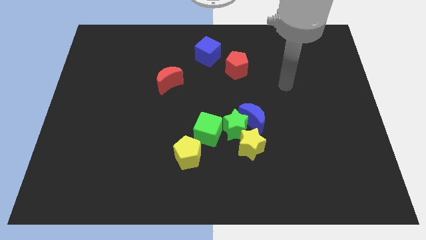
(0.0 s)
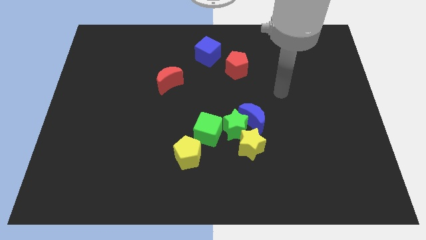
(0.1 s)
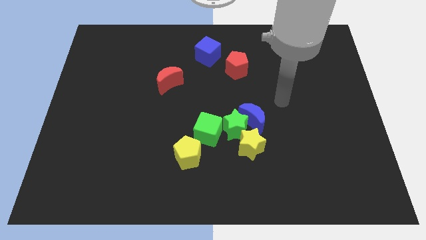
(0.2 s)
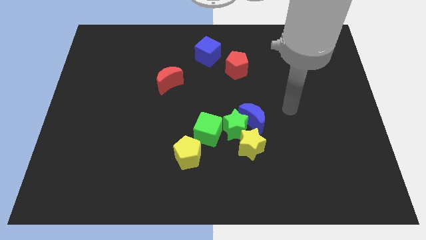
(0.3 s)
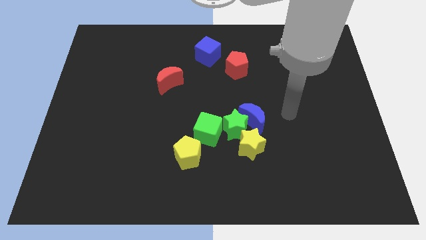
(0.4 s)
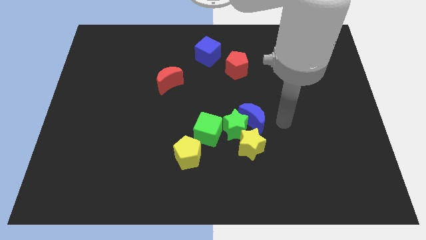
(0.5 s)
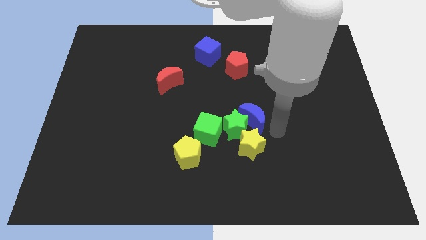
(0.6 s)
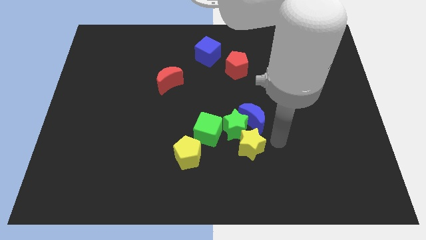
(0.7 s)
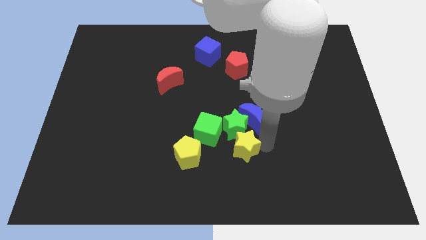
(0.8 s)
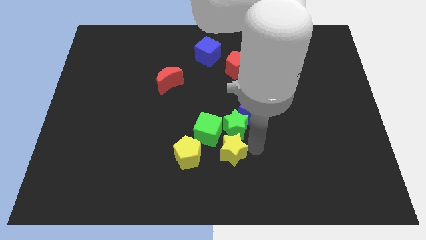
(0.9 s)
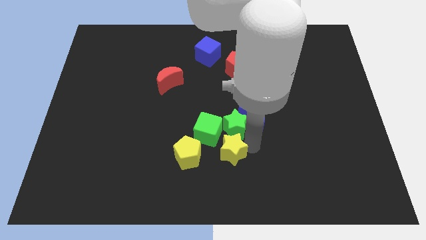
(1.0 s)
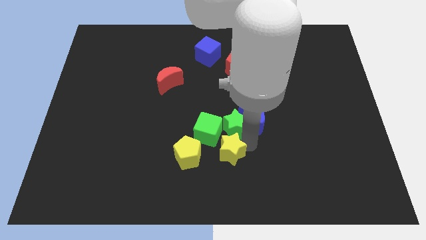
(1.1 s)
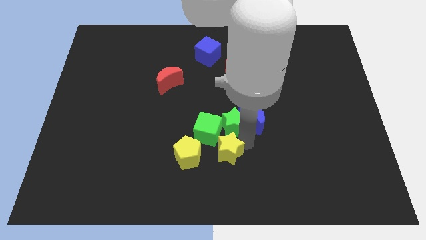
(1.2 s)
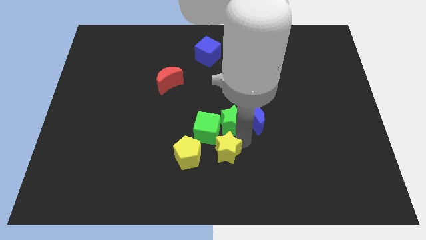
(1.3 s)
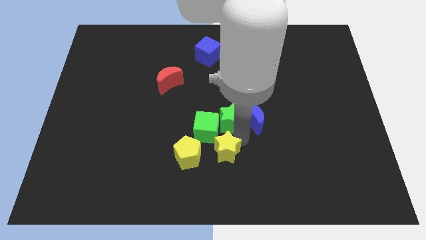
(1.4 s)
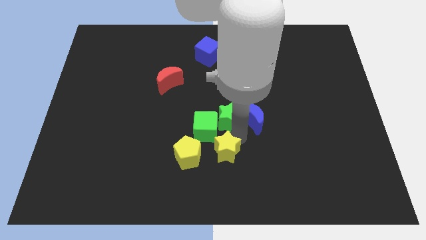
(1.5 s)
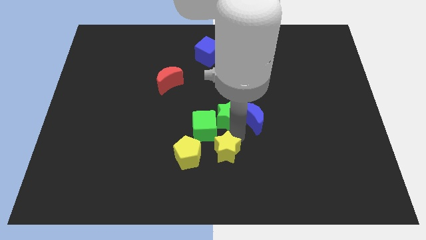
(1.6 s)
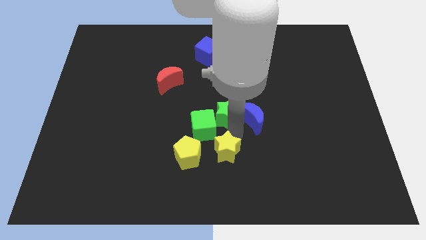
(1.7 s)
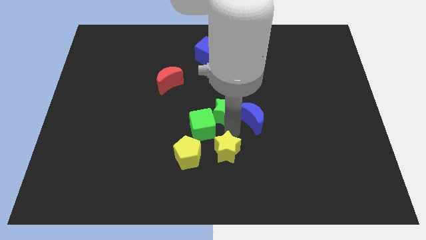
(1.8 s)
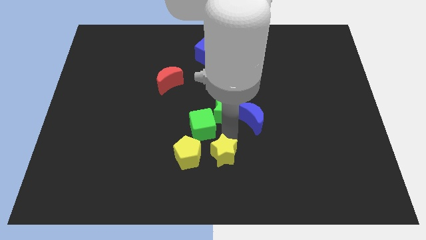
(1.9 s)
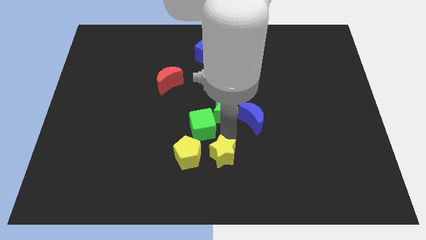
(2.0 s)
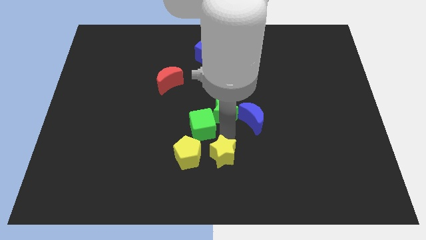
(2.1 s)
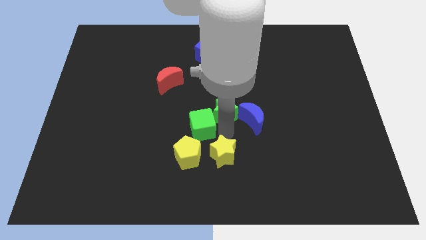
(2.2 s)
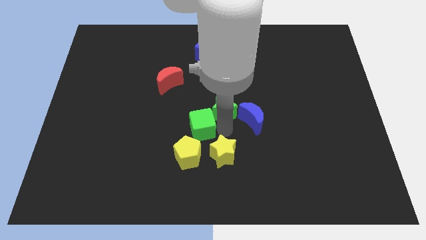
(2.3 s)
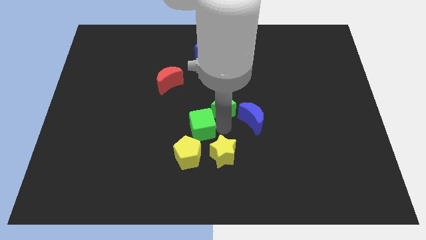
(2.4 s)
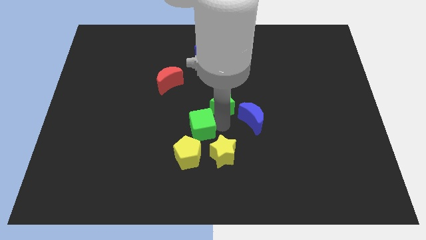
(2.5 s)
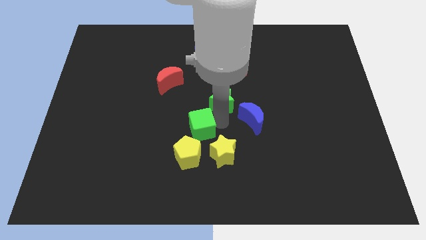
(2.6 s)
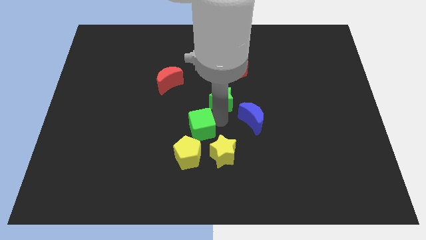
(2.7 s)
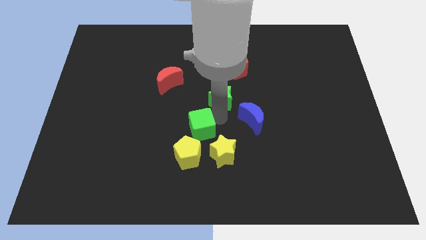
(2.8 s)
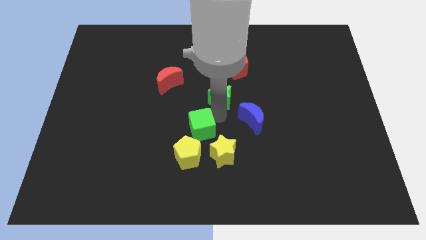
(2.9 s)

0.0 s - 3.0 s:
pull the green star apart from the blue moon, green cube, and yellow star

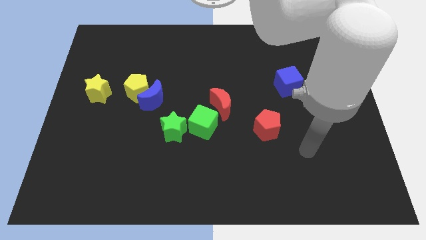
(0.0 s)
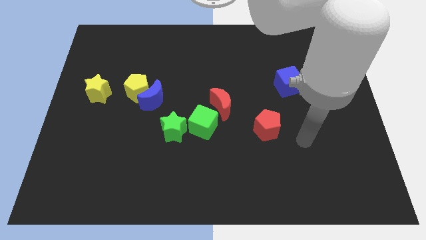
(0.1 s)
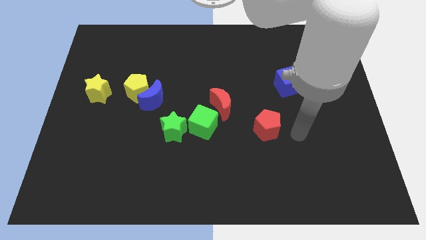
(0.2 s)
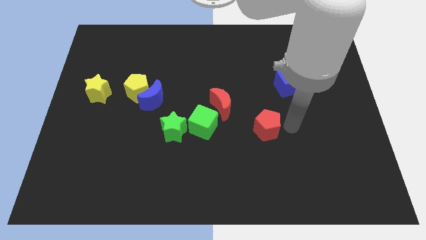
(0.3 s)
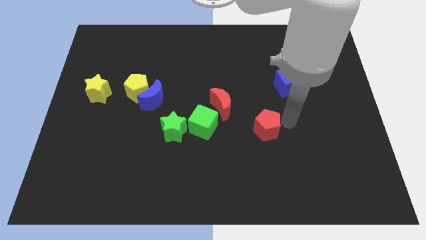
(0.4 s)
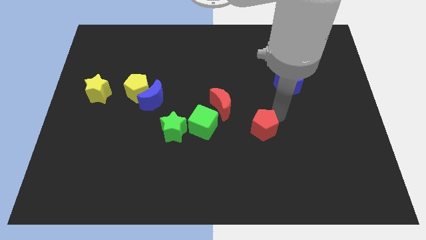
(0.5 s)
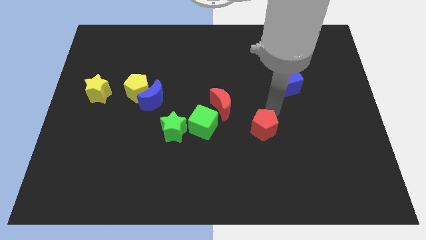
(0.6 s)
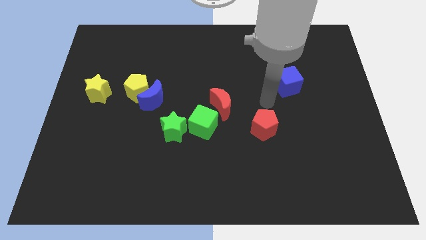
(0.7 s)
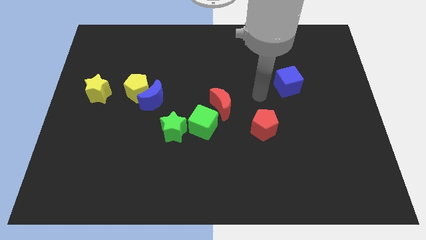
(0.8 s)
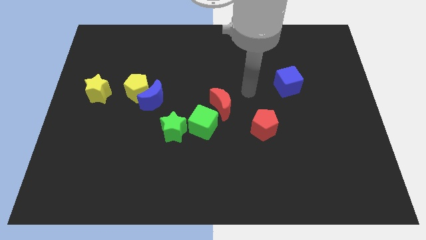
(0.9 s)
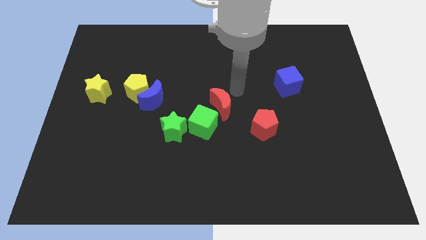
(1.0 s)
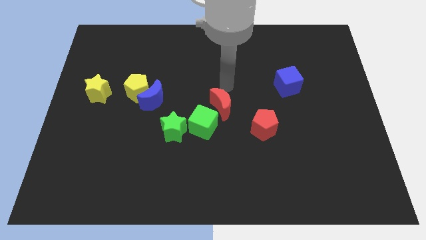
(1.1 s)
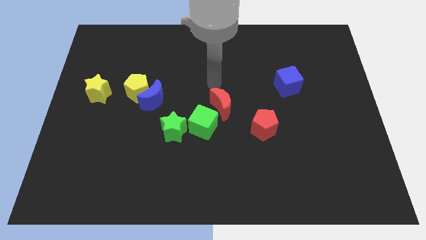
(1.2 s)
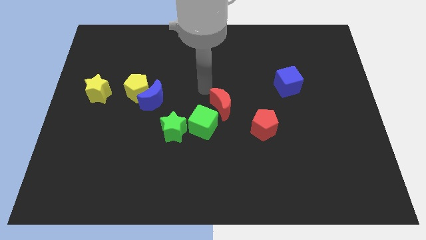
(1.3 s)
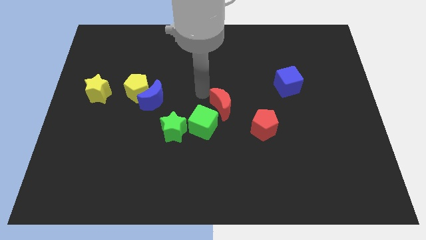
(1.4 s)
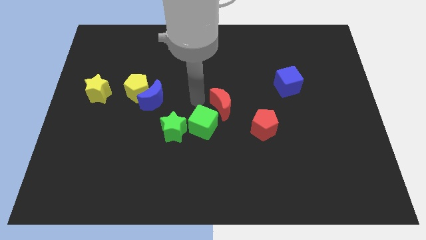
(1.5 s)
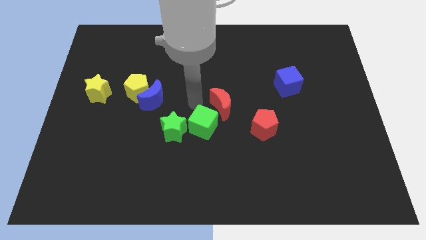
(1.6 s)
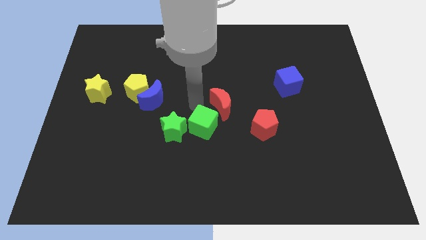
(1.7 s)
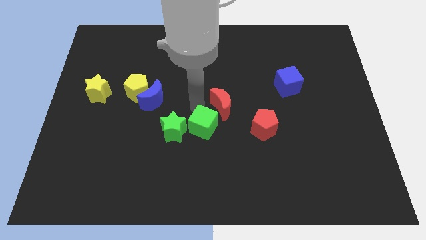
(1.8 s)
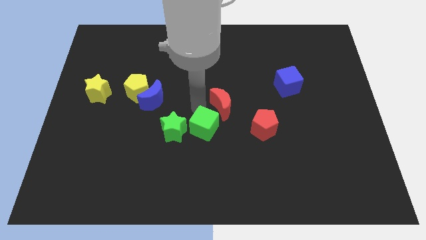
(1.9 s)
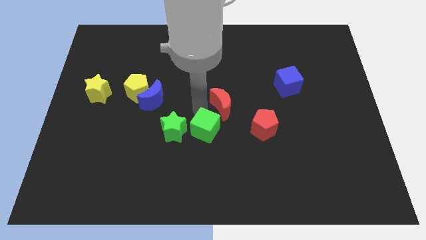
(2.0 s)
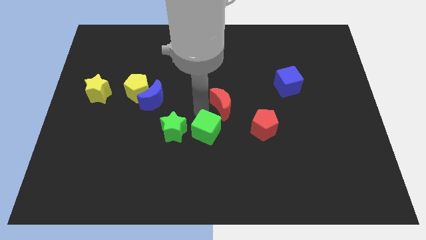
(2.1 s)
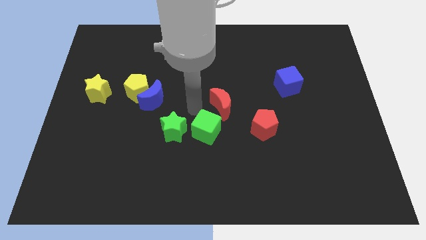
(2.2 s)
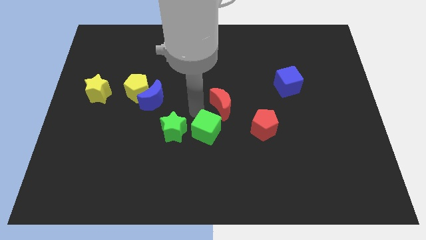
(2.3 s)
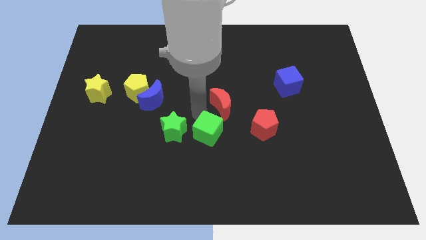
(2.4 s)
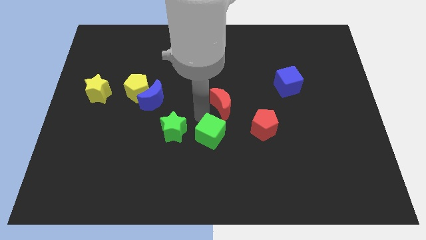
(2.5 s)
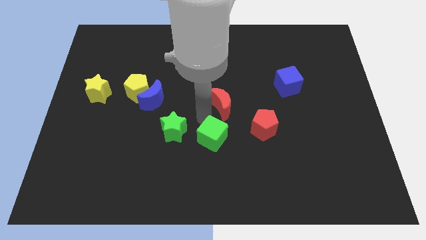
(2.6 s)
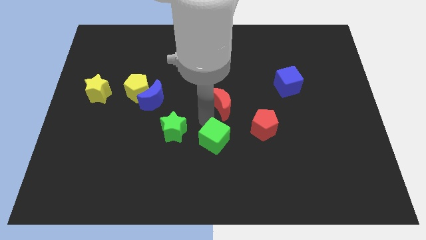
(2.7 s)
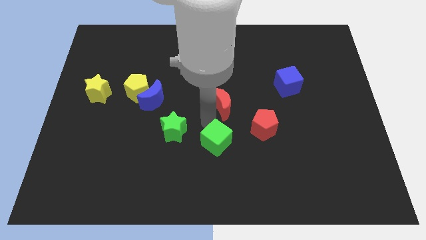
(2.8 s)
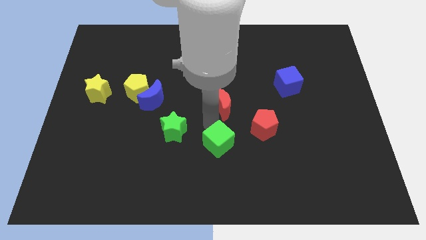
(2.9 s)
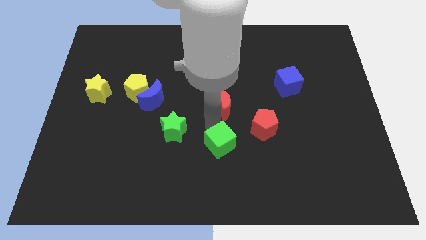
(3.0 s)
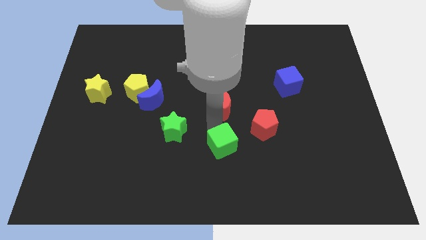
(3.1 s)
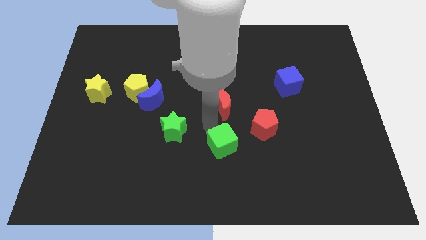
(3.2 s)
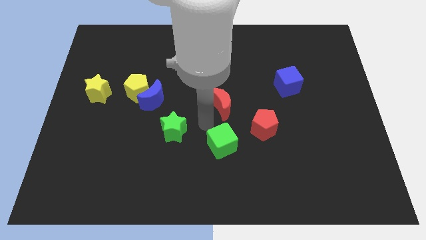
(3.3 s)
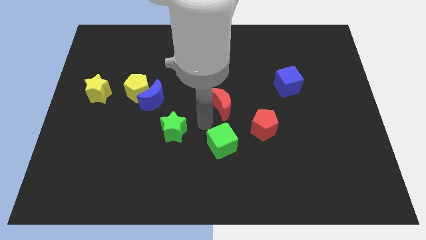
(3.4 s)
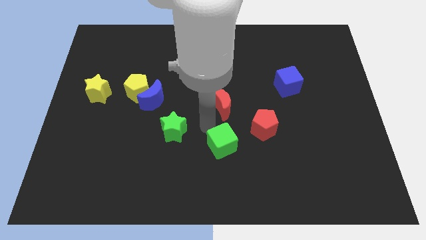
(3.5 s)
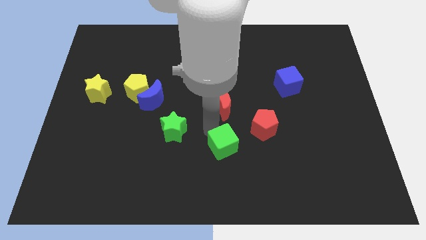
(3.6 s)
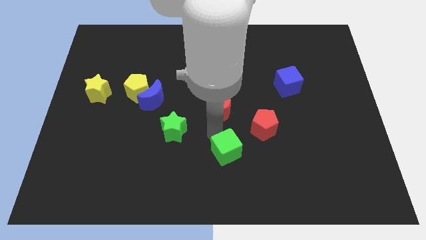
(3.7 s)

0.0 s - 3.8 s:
separate the green cube from the green star and red moon

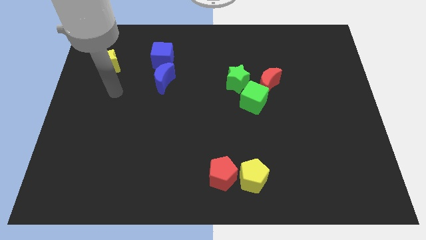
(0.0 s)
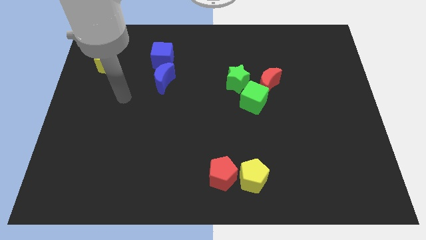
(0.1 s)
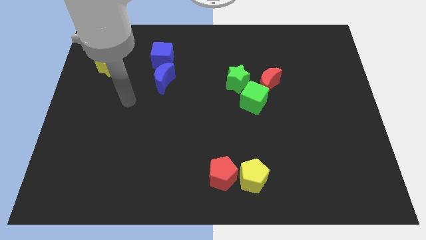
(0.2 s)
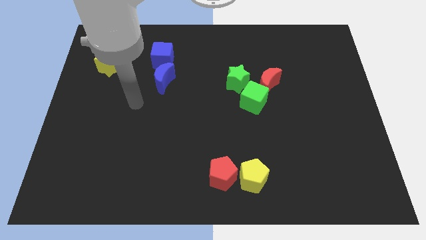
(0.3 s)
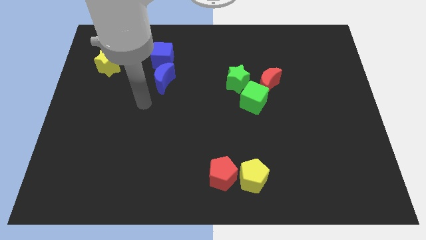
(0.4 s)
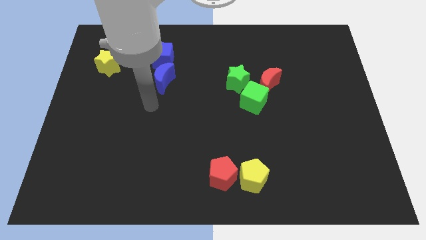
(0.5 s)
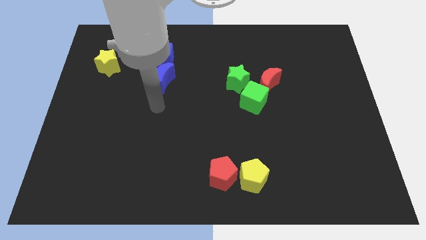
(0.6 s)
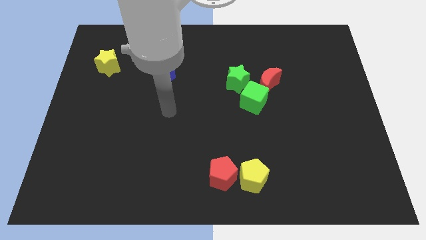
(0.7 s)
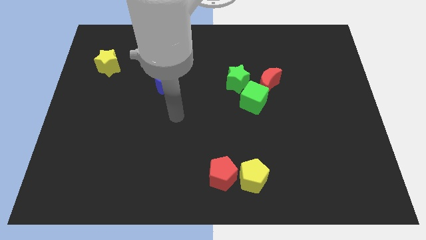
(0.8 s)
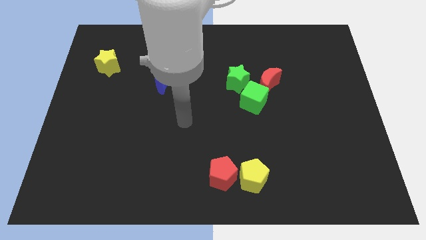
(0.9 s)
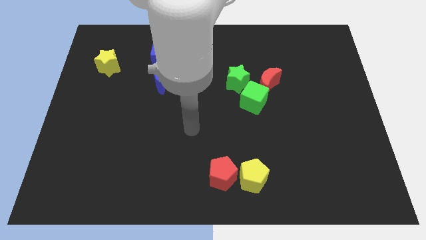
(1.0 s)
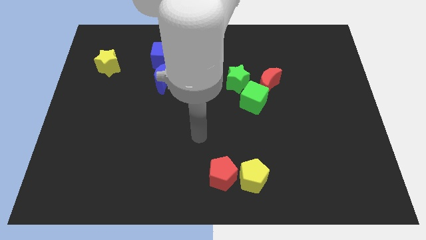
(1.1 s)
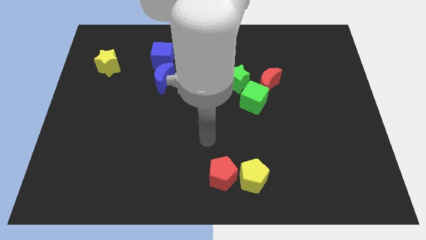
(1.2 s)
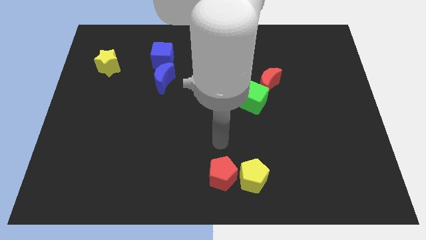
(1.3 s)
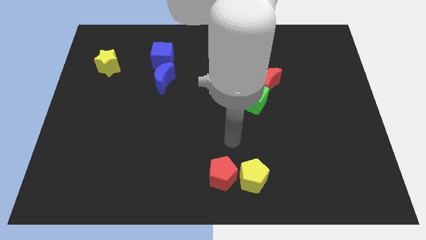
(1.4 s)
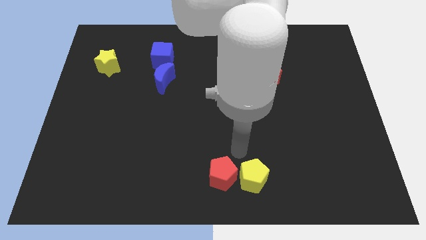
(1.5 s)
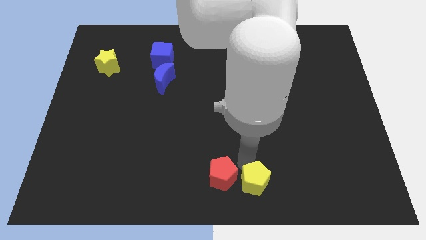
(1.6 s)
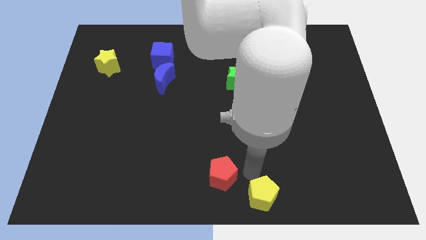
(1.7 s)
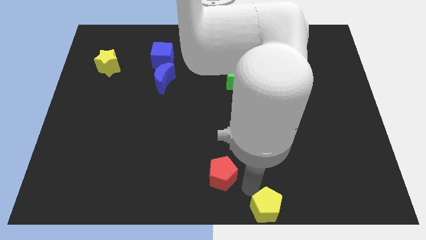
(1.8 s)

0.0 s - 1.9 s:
pull the red pentagon apart from the yellow pentagon

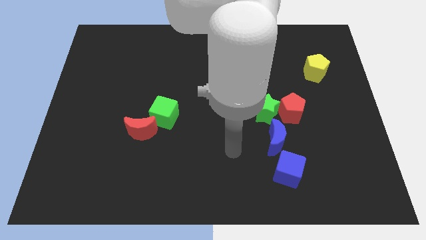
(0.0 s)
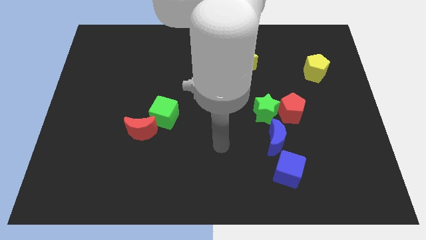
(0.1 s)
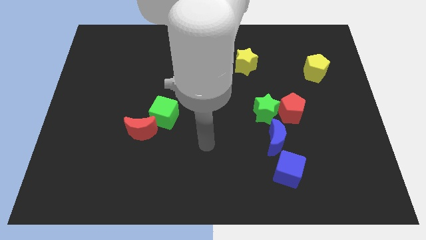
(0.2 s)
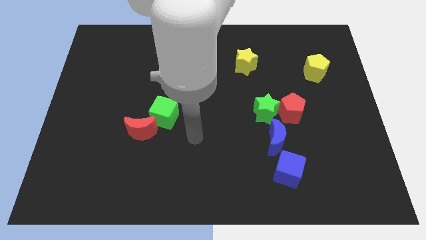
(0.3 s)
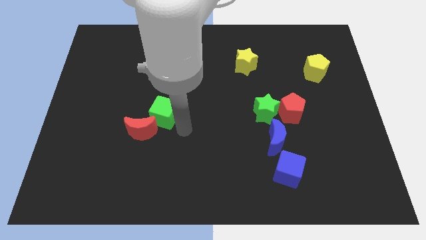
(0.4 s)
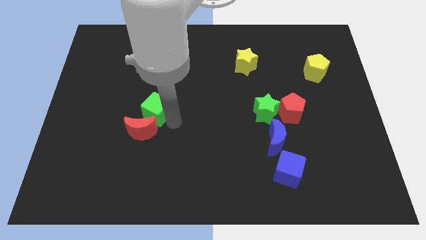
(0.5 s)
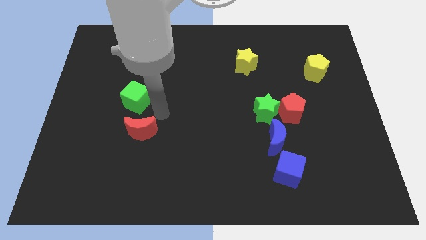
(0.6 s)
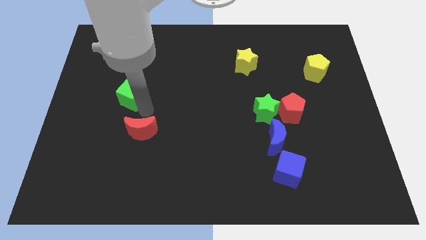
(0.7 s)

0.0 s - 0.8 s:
move the red moon away from the green cube
